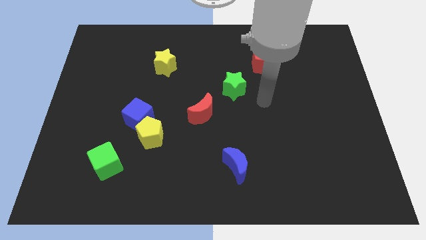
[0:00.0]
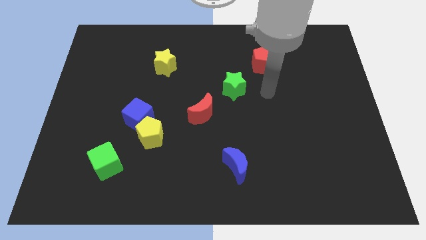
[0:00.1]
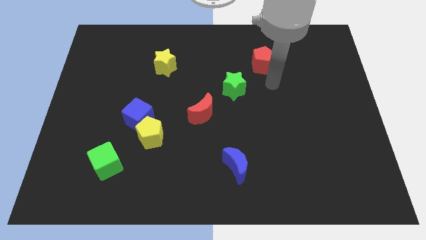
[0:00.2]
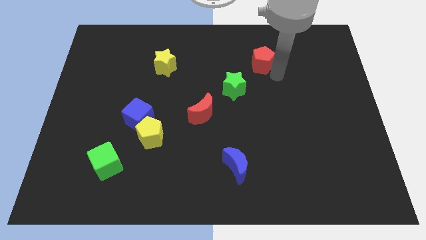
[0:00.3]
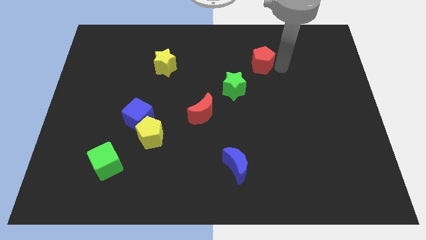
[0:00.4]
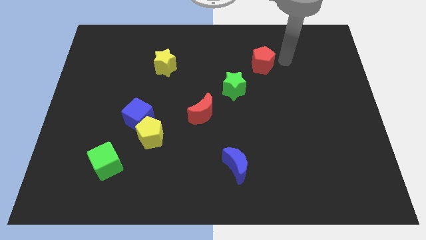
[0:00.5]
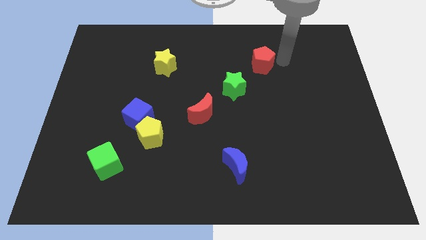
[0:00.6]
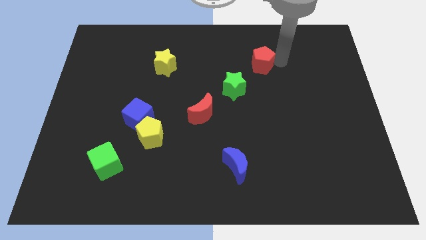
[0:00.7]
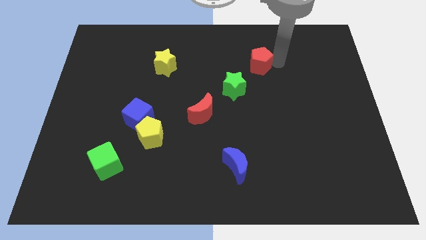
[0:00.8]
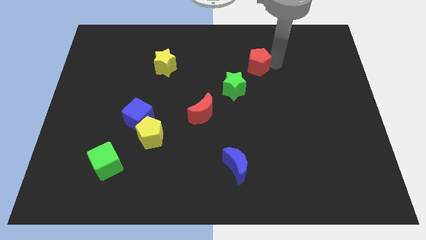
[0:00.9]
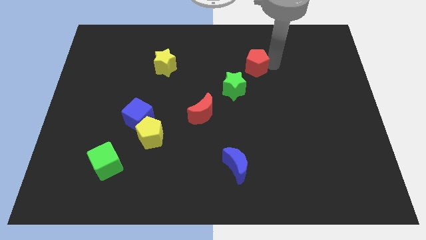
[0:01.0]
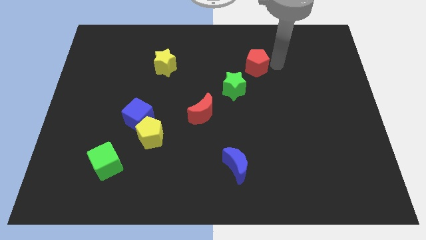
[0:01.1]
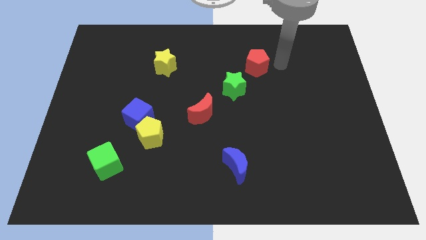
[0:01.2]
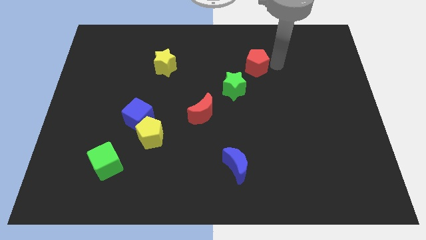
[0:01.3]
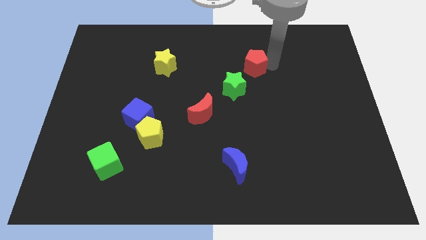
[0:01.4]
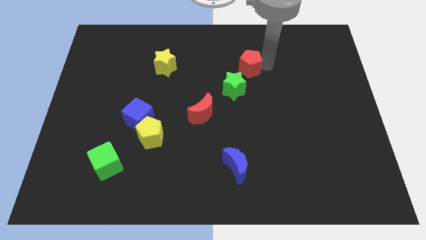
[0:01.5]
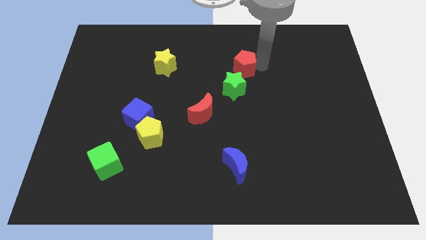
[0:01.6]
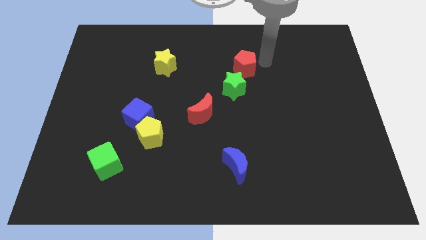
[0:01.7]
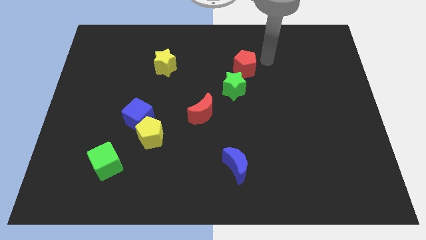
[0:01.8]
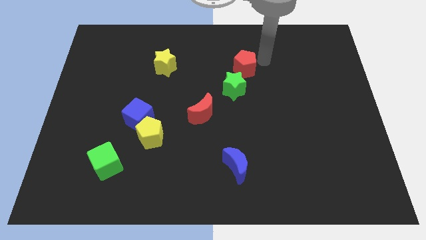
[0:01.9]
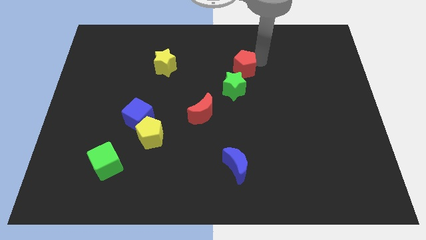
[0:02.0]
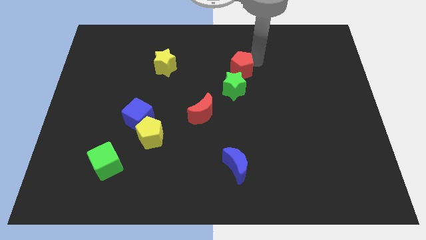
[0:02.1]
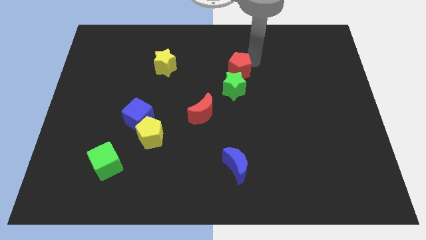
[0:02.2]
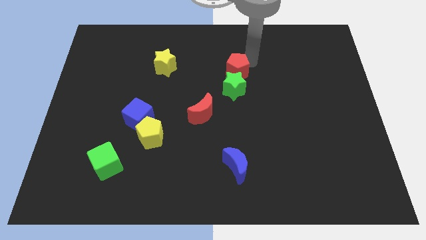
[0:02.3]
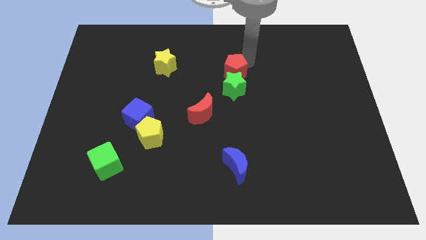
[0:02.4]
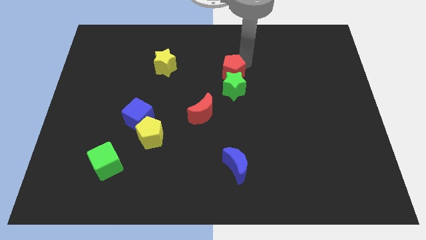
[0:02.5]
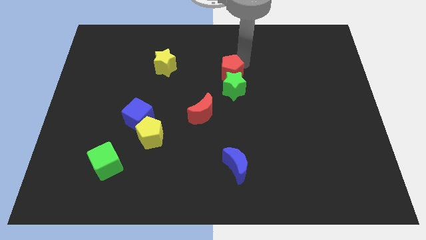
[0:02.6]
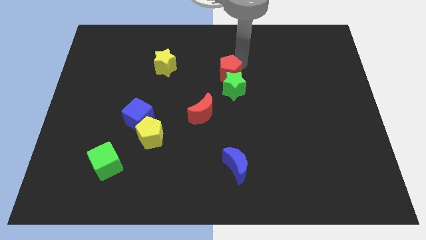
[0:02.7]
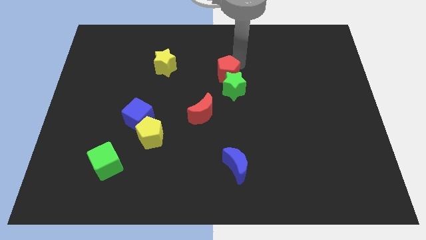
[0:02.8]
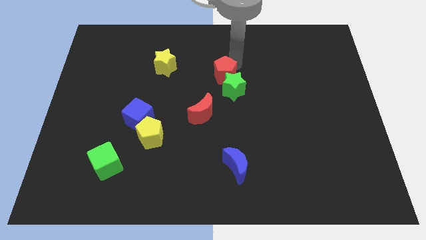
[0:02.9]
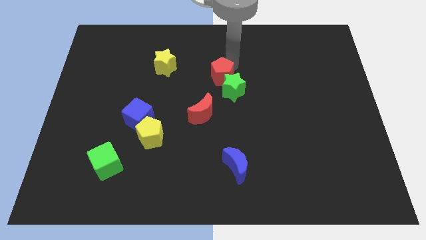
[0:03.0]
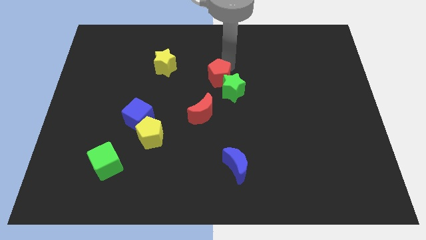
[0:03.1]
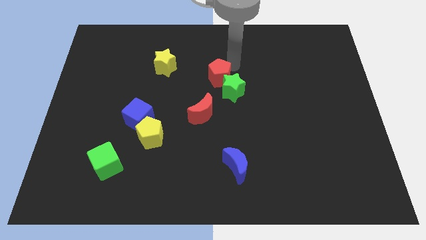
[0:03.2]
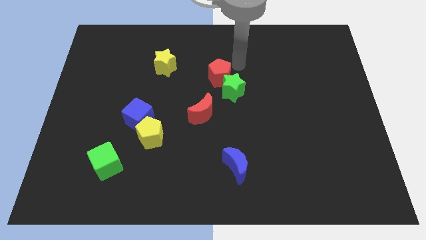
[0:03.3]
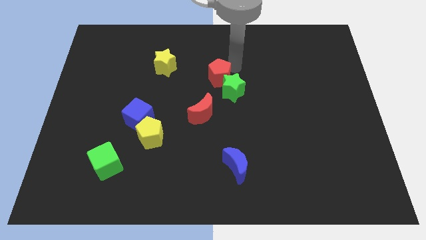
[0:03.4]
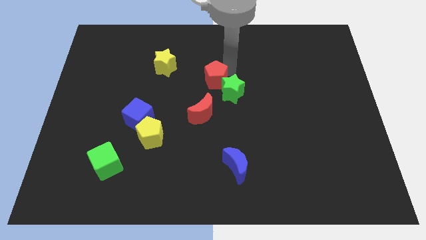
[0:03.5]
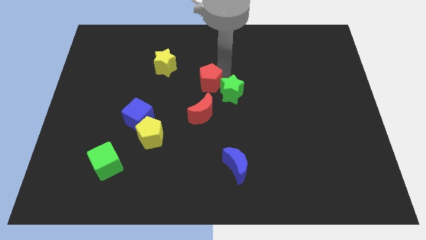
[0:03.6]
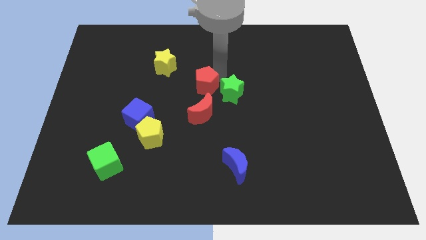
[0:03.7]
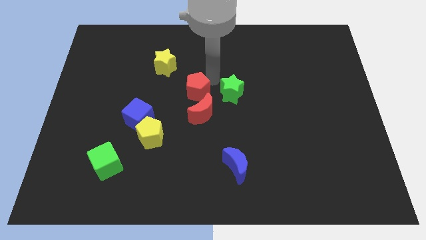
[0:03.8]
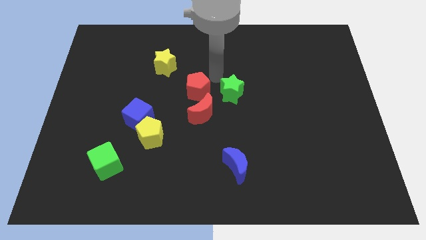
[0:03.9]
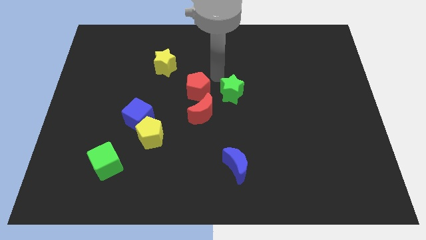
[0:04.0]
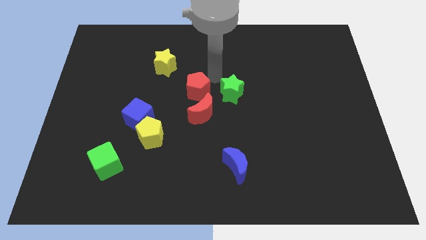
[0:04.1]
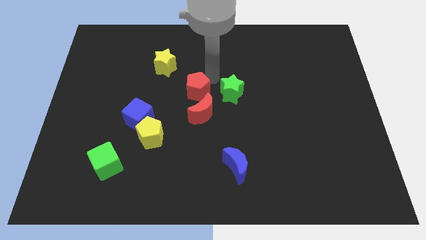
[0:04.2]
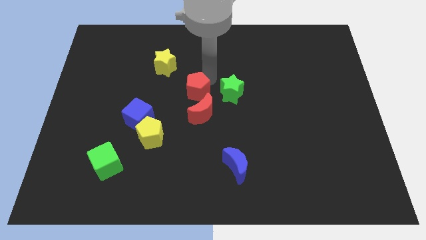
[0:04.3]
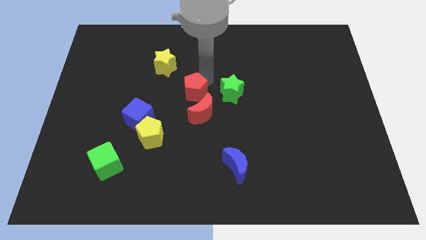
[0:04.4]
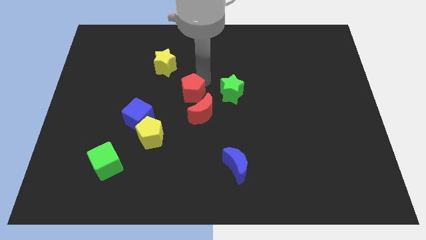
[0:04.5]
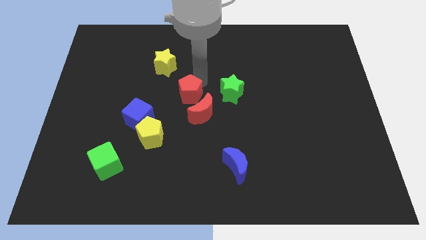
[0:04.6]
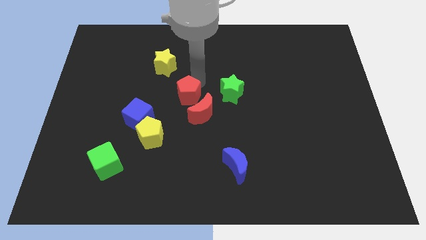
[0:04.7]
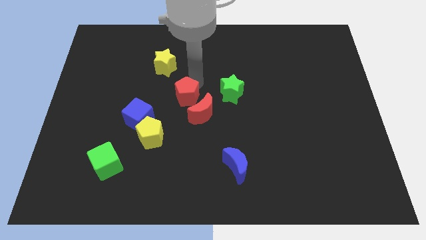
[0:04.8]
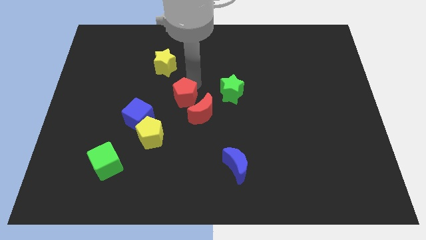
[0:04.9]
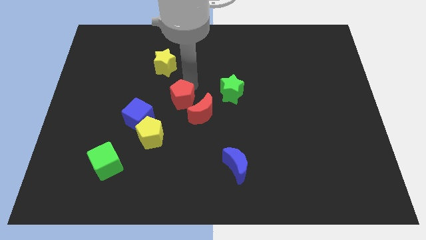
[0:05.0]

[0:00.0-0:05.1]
slide the red pentagon to the left side of the red moon

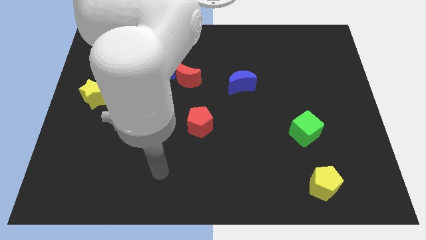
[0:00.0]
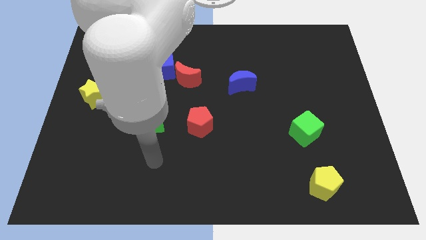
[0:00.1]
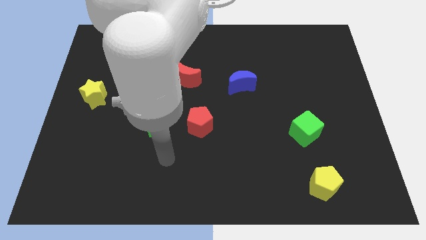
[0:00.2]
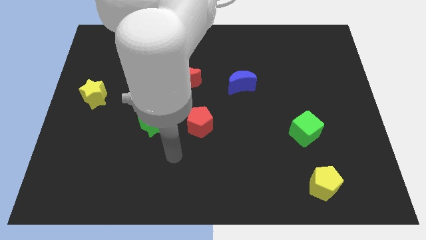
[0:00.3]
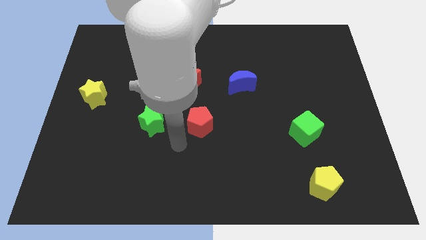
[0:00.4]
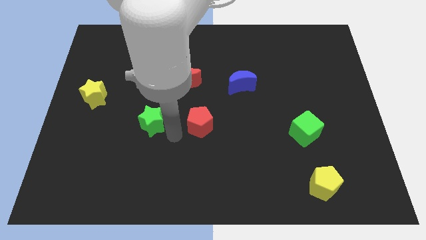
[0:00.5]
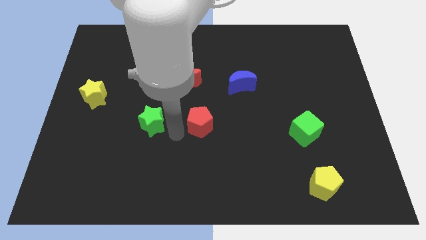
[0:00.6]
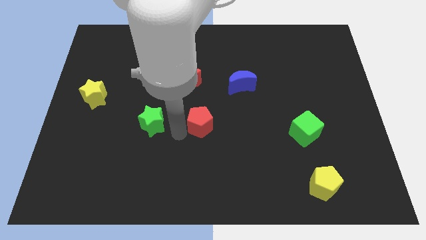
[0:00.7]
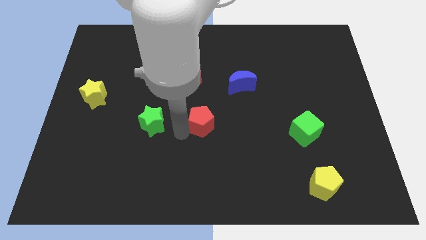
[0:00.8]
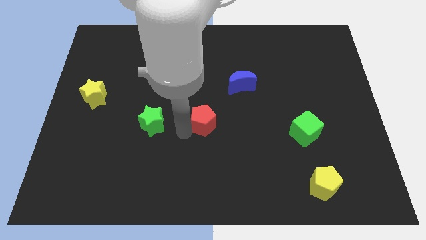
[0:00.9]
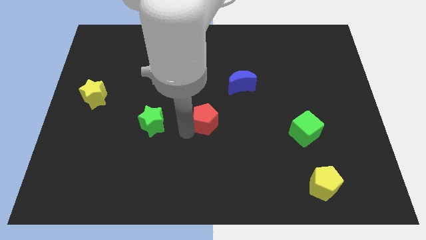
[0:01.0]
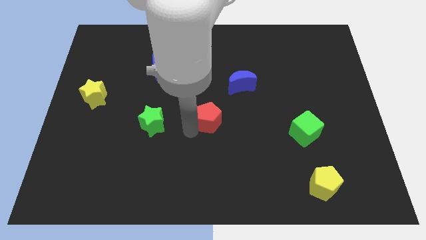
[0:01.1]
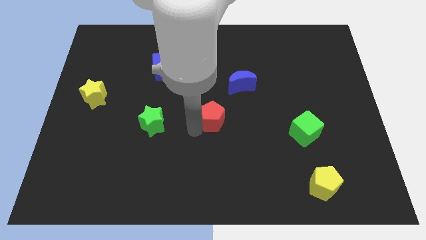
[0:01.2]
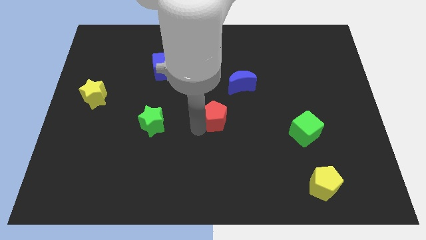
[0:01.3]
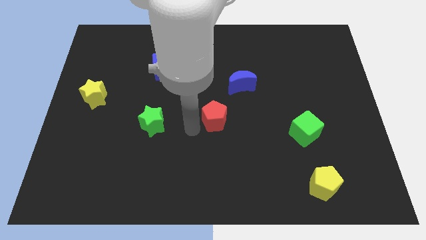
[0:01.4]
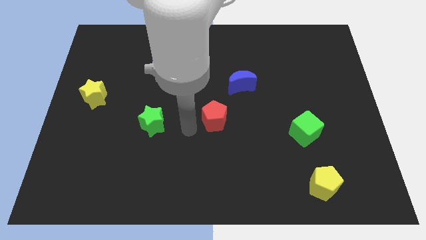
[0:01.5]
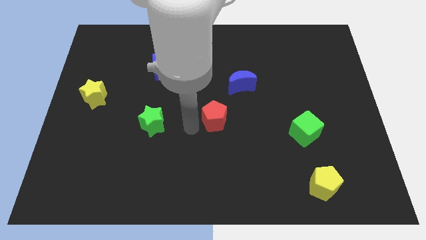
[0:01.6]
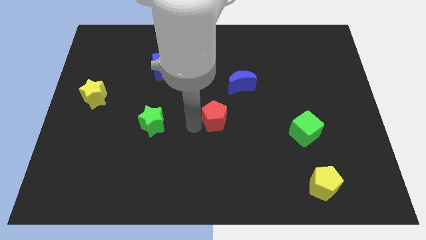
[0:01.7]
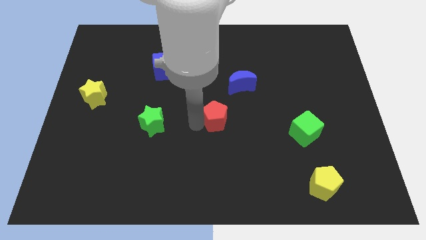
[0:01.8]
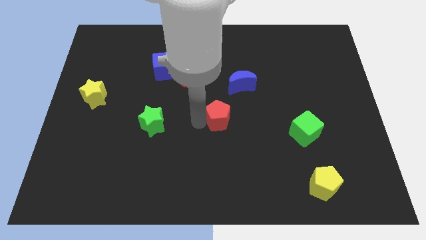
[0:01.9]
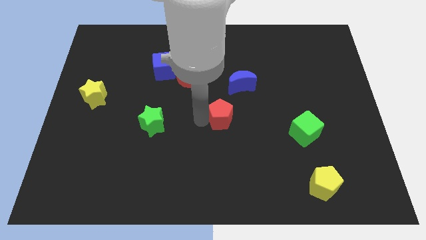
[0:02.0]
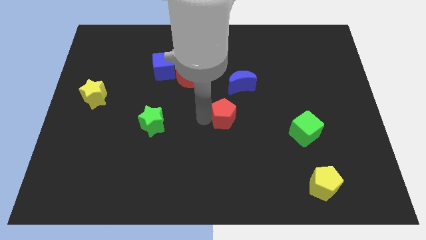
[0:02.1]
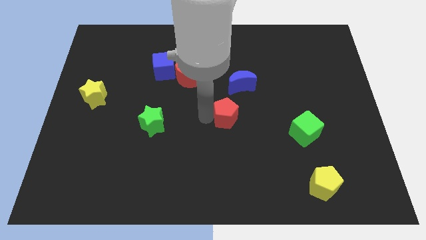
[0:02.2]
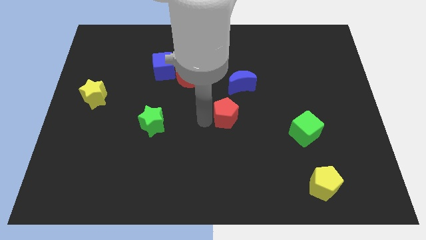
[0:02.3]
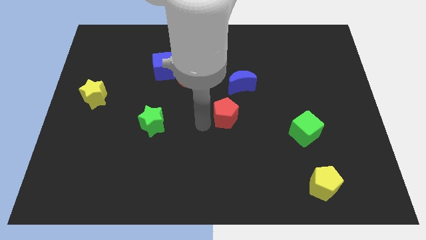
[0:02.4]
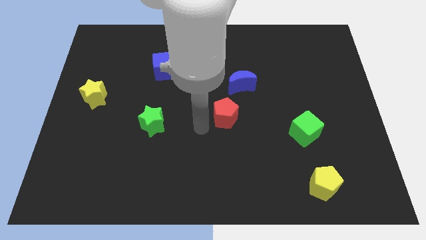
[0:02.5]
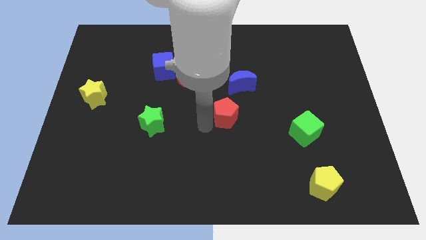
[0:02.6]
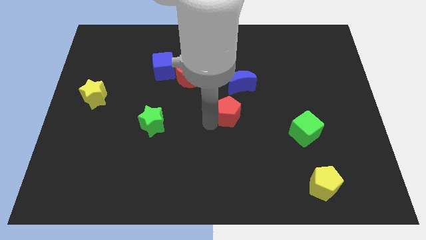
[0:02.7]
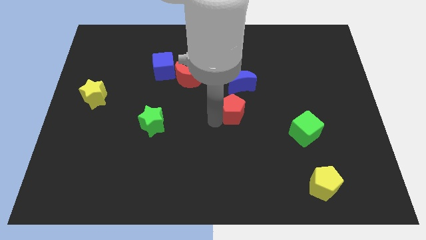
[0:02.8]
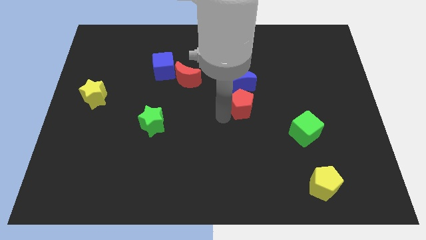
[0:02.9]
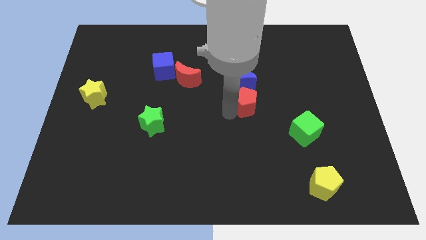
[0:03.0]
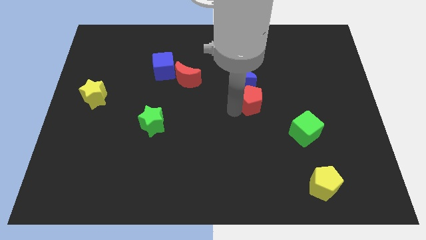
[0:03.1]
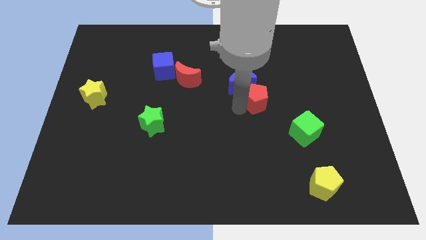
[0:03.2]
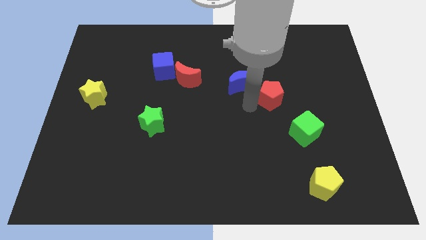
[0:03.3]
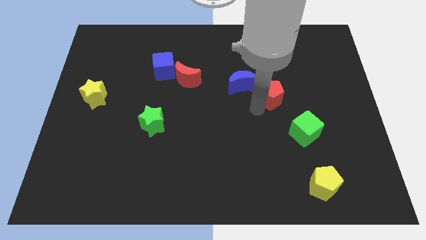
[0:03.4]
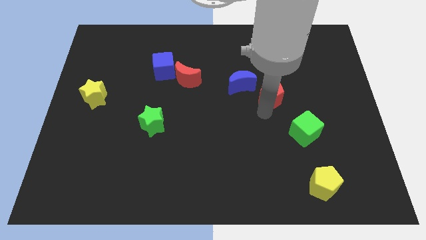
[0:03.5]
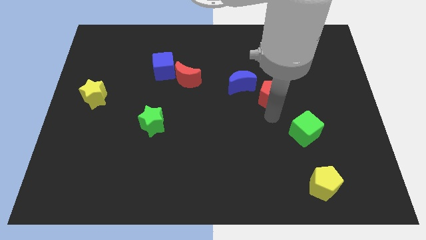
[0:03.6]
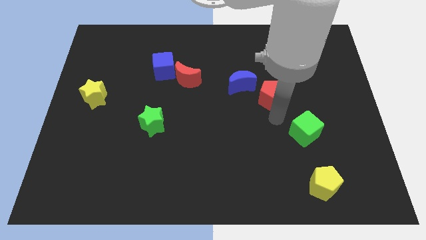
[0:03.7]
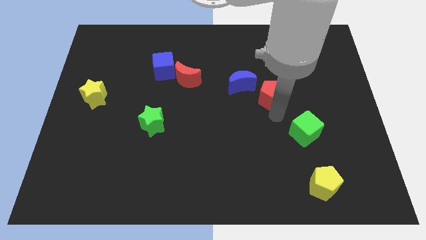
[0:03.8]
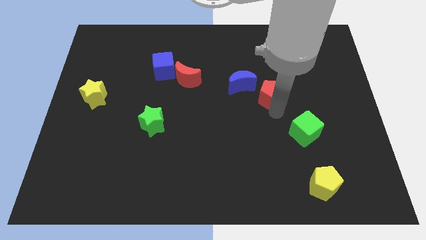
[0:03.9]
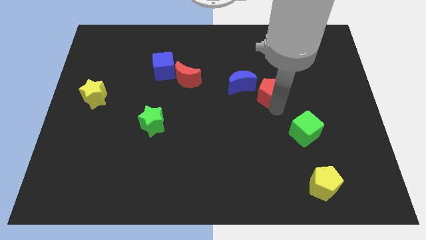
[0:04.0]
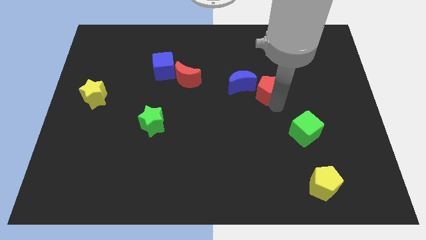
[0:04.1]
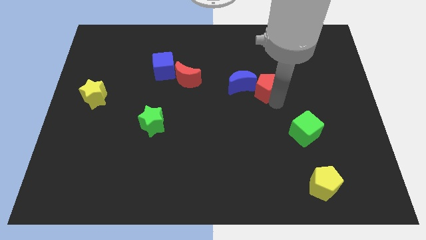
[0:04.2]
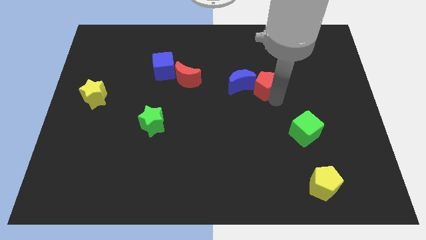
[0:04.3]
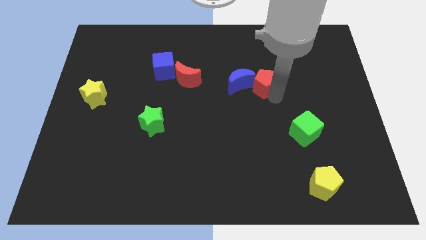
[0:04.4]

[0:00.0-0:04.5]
put the red pentagon to the top right of the blue moon
